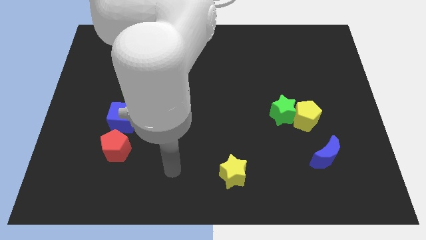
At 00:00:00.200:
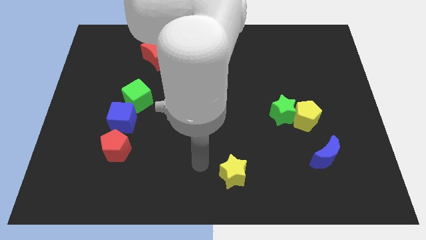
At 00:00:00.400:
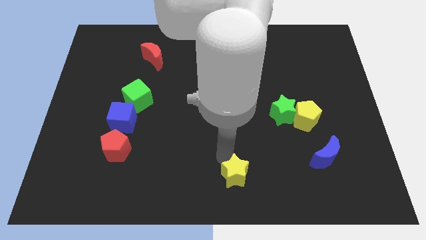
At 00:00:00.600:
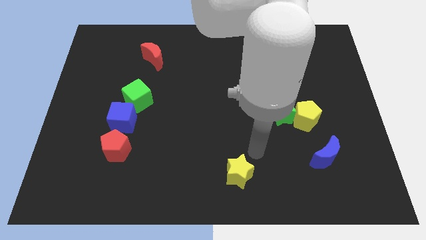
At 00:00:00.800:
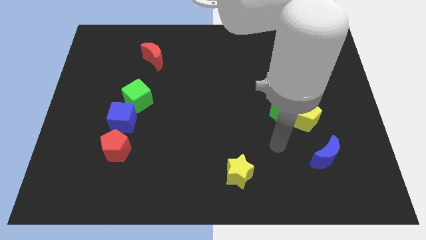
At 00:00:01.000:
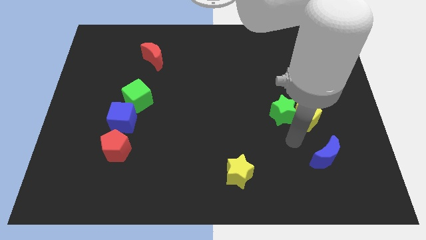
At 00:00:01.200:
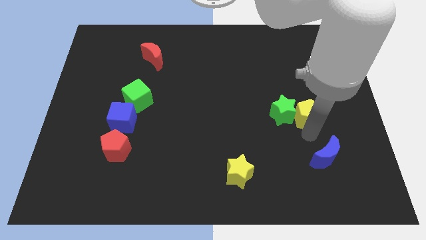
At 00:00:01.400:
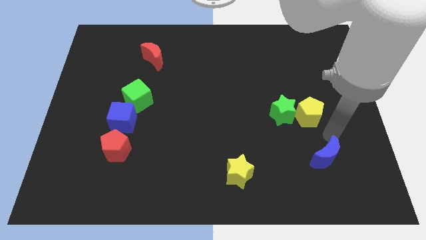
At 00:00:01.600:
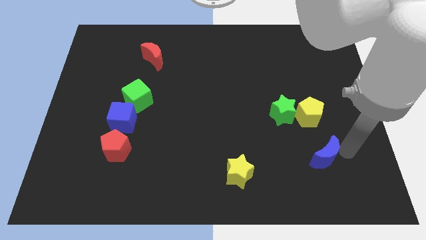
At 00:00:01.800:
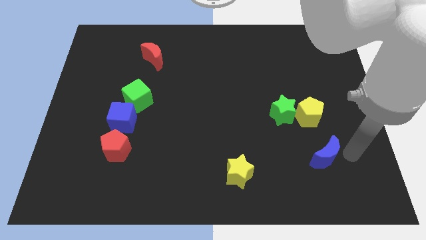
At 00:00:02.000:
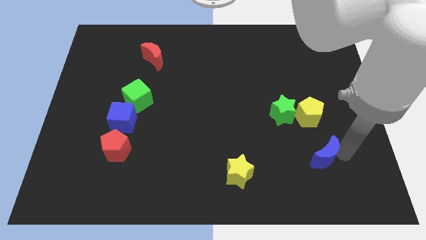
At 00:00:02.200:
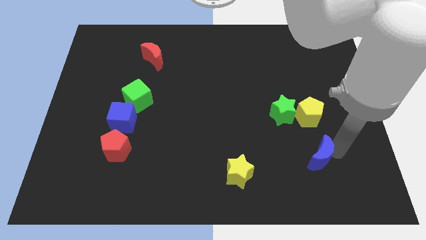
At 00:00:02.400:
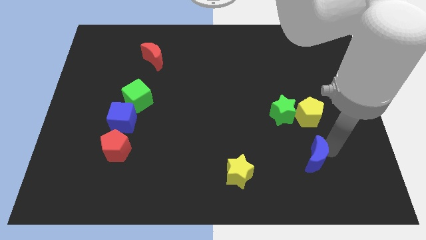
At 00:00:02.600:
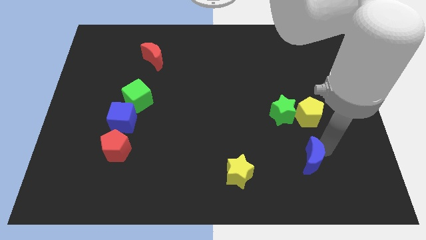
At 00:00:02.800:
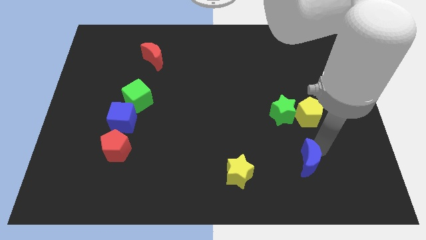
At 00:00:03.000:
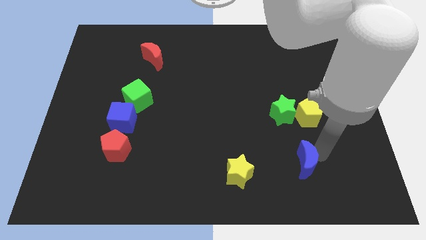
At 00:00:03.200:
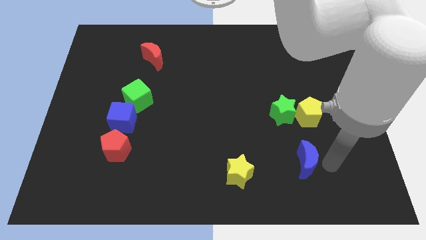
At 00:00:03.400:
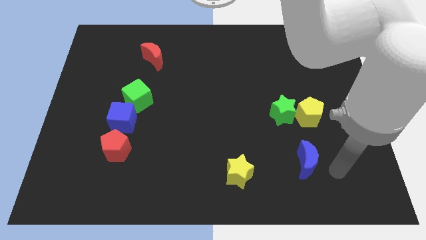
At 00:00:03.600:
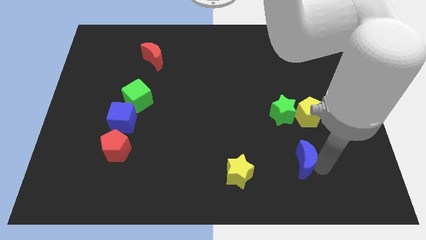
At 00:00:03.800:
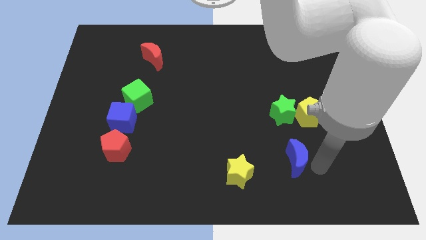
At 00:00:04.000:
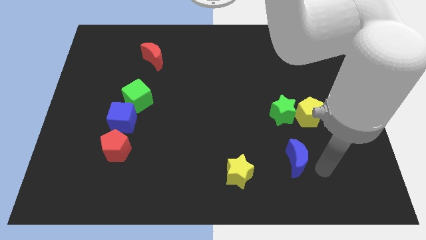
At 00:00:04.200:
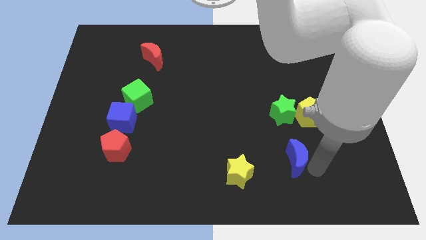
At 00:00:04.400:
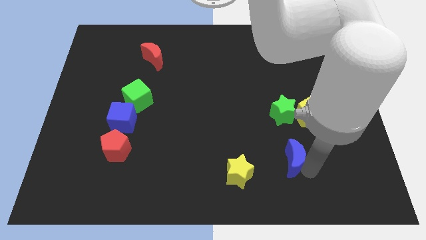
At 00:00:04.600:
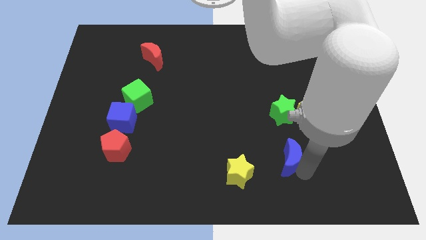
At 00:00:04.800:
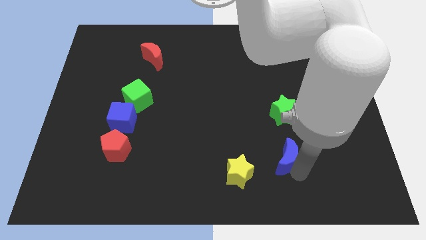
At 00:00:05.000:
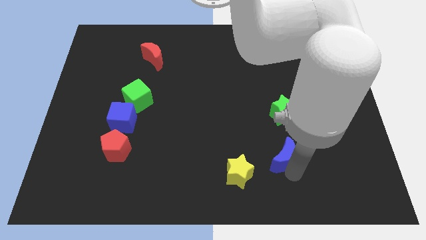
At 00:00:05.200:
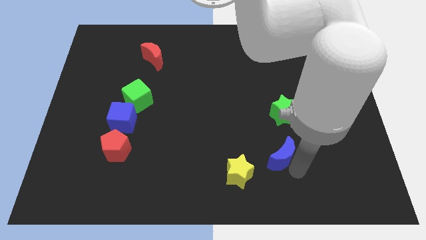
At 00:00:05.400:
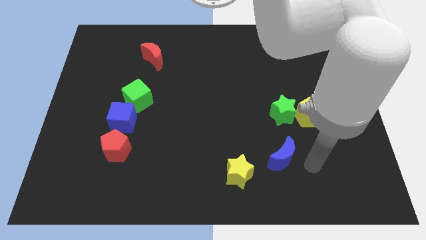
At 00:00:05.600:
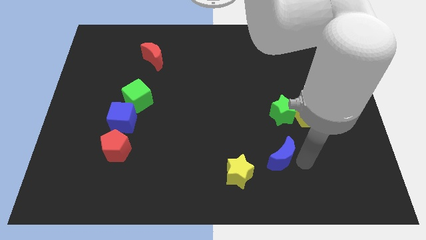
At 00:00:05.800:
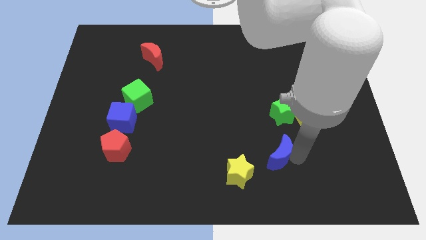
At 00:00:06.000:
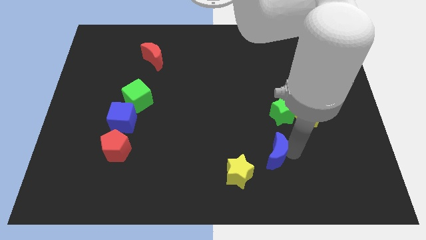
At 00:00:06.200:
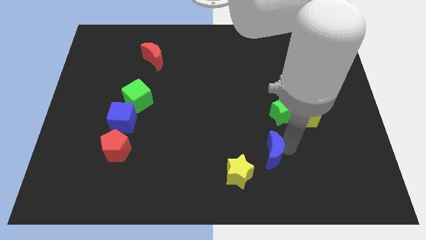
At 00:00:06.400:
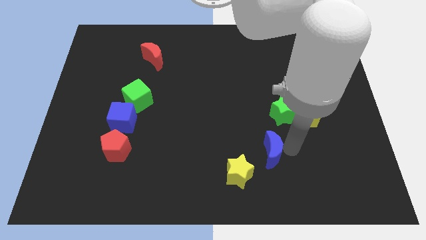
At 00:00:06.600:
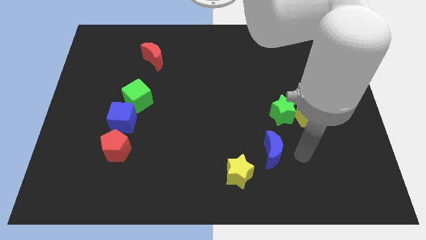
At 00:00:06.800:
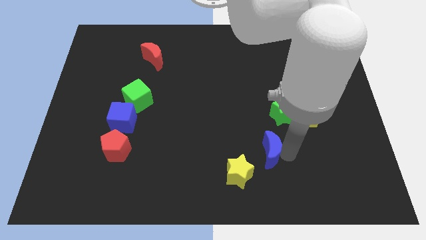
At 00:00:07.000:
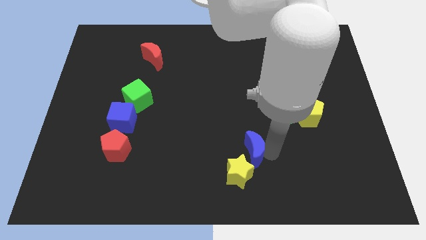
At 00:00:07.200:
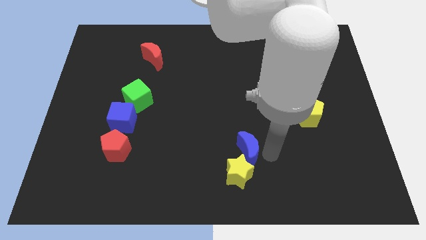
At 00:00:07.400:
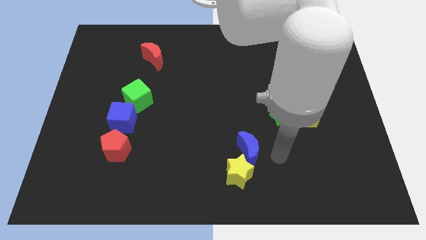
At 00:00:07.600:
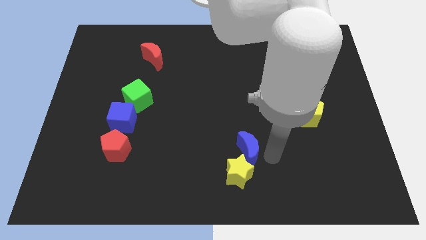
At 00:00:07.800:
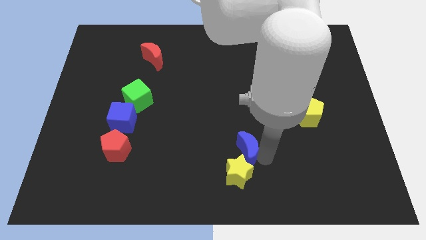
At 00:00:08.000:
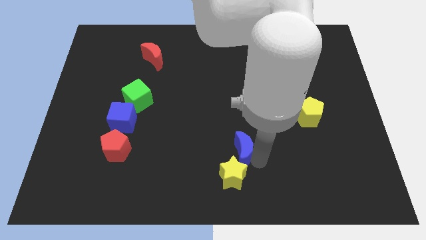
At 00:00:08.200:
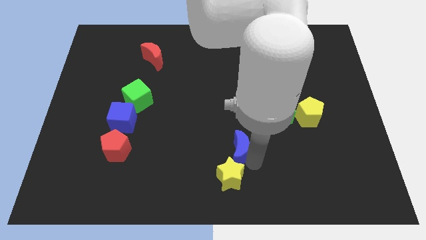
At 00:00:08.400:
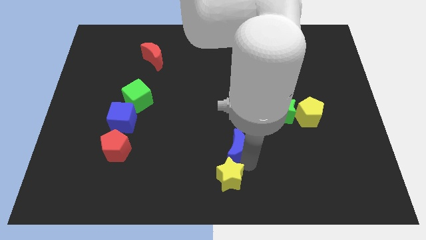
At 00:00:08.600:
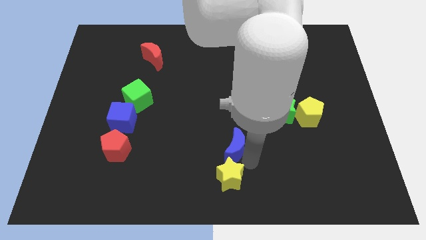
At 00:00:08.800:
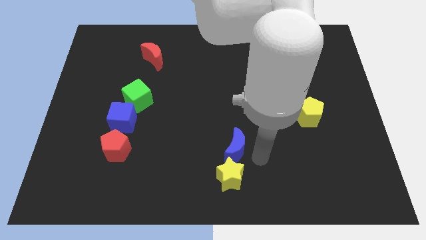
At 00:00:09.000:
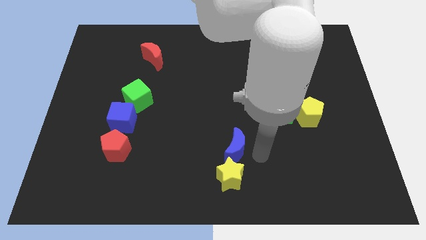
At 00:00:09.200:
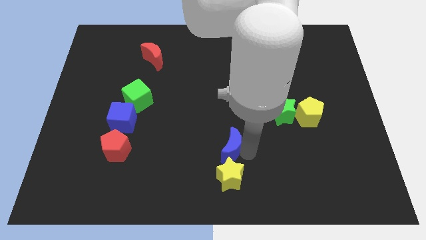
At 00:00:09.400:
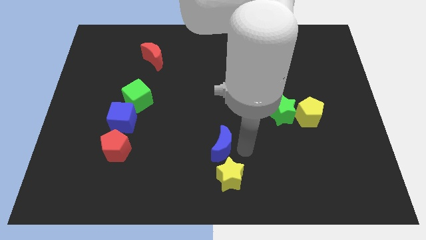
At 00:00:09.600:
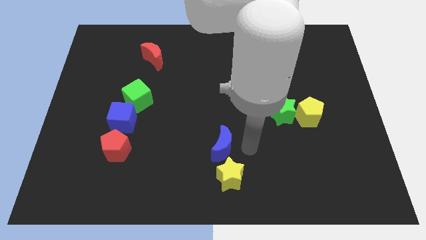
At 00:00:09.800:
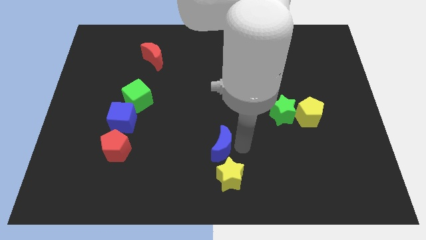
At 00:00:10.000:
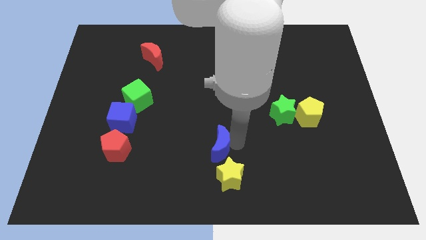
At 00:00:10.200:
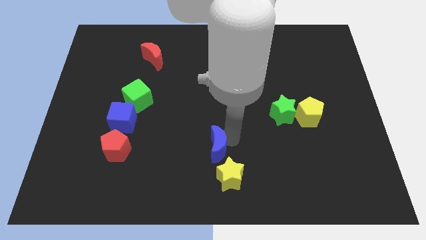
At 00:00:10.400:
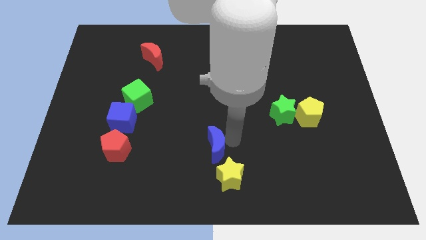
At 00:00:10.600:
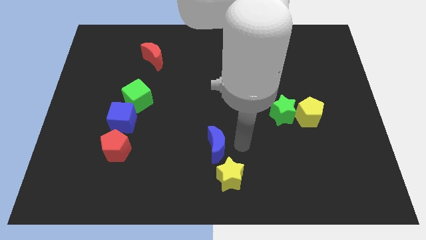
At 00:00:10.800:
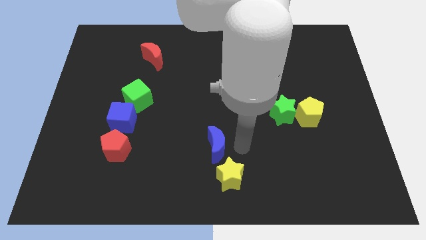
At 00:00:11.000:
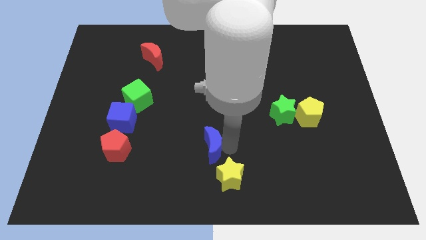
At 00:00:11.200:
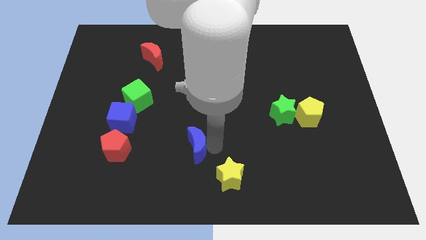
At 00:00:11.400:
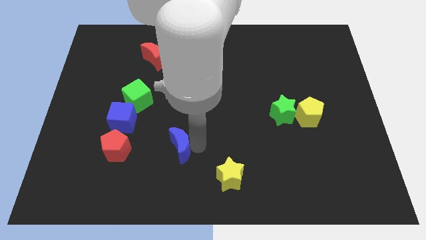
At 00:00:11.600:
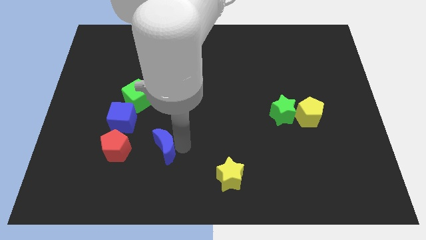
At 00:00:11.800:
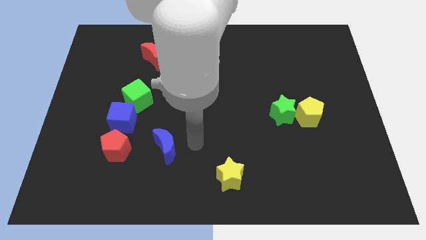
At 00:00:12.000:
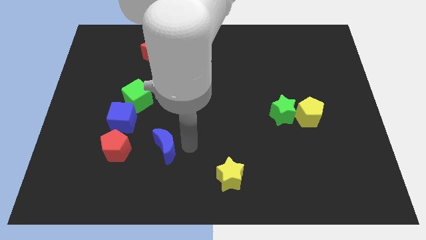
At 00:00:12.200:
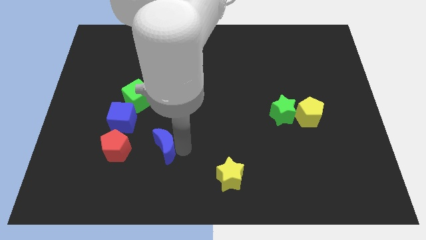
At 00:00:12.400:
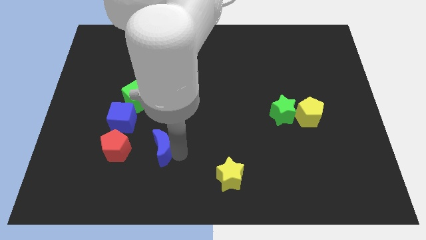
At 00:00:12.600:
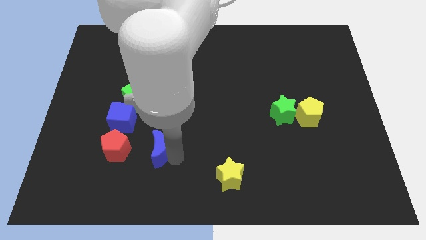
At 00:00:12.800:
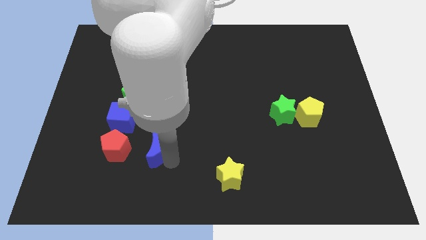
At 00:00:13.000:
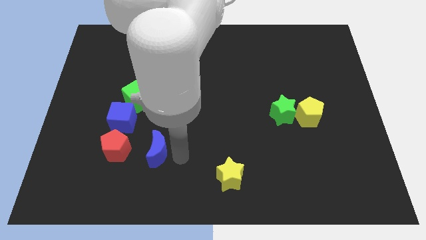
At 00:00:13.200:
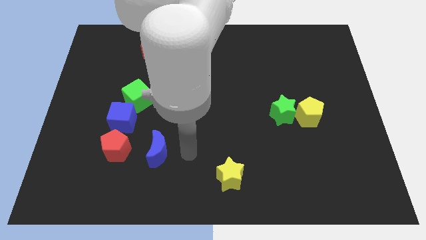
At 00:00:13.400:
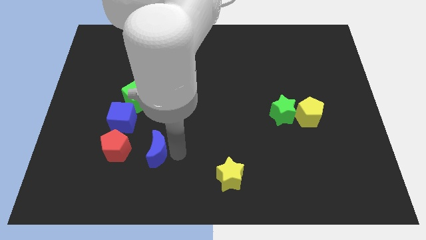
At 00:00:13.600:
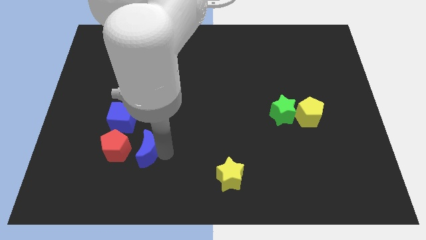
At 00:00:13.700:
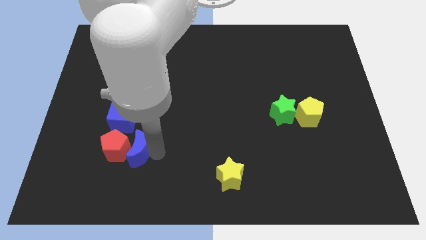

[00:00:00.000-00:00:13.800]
move the blue moon towards the red pentagon

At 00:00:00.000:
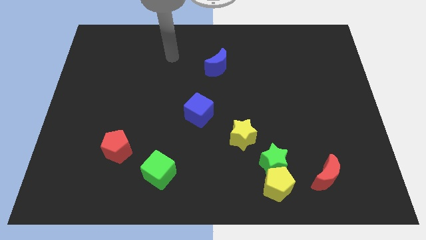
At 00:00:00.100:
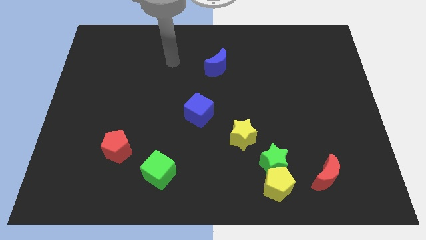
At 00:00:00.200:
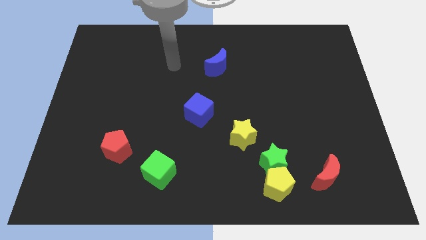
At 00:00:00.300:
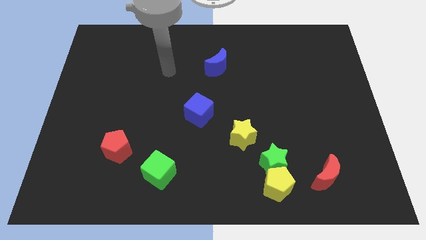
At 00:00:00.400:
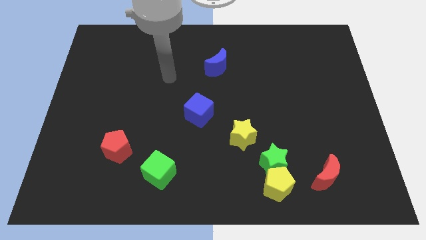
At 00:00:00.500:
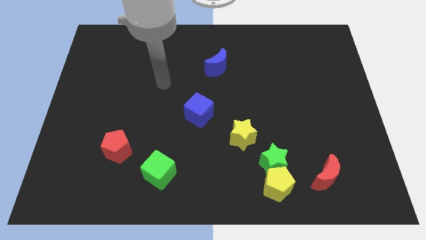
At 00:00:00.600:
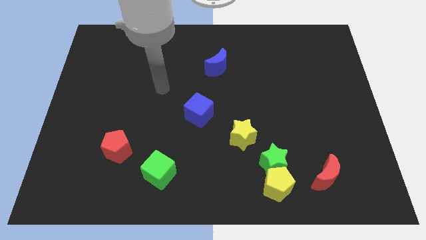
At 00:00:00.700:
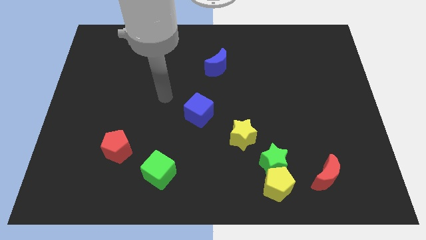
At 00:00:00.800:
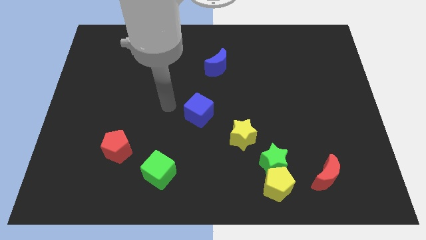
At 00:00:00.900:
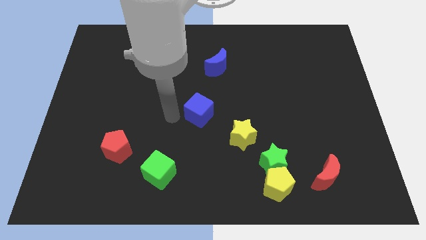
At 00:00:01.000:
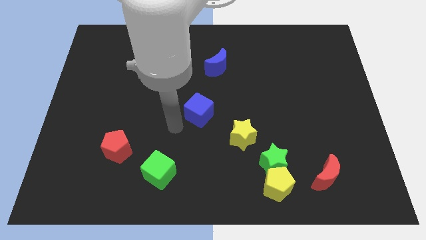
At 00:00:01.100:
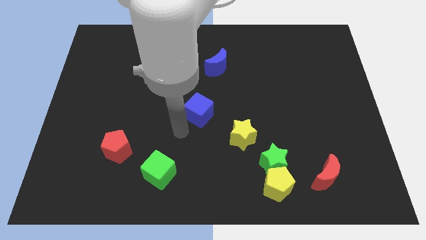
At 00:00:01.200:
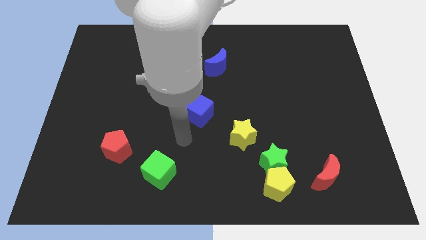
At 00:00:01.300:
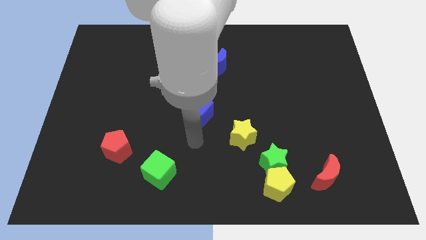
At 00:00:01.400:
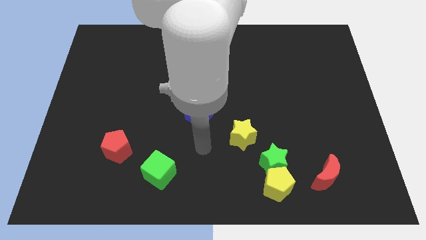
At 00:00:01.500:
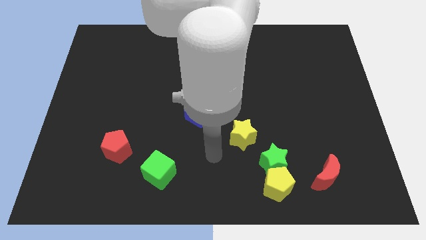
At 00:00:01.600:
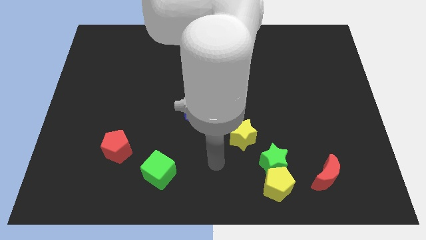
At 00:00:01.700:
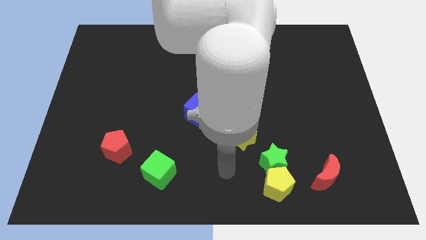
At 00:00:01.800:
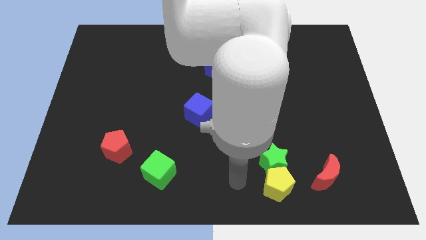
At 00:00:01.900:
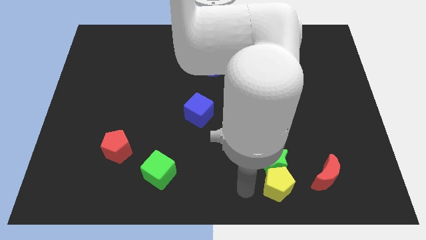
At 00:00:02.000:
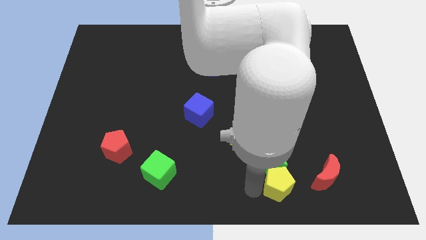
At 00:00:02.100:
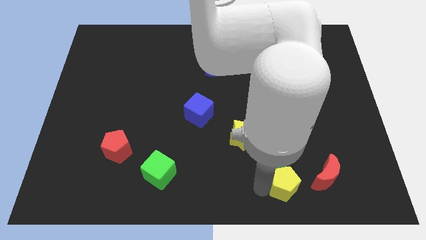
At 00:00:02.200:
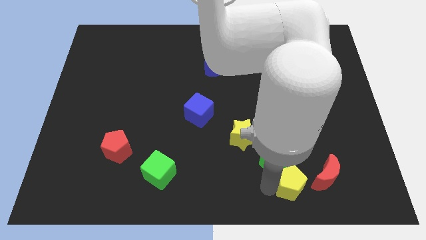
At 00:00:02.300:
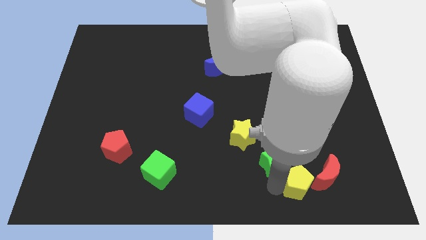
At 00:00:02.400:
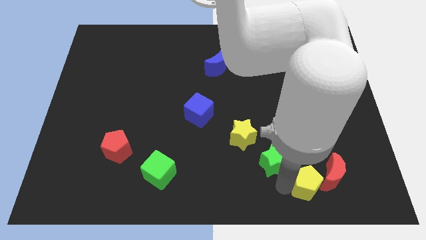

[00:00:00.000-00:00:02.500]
put the yellow pentagon to the red moon
